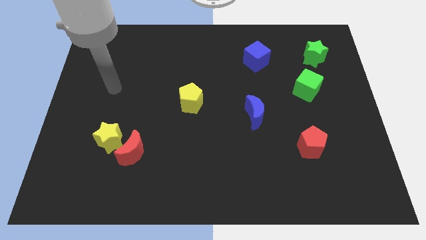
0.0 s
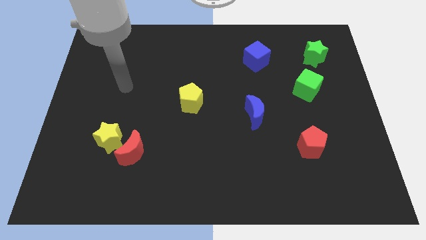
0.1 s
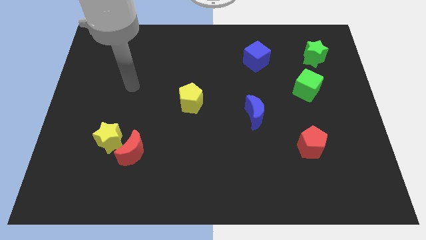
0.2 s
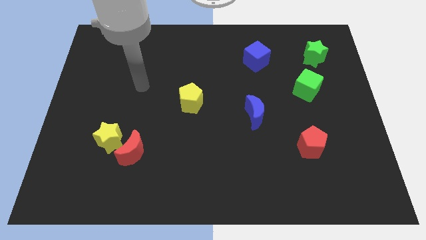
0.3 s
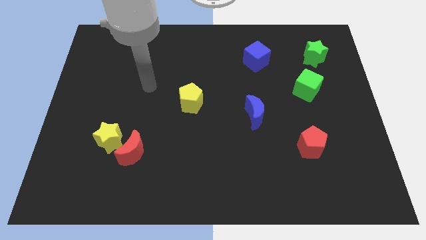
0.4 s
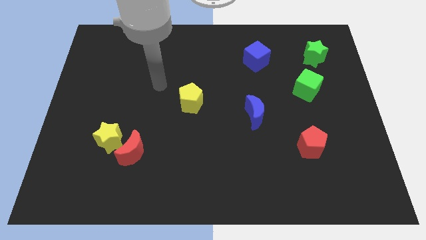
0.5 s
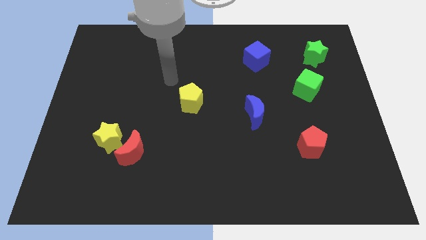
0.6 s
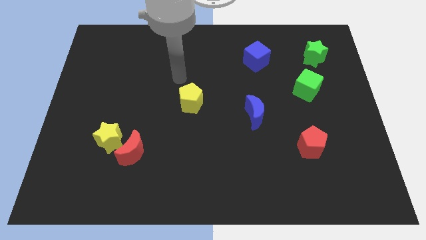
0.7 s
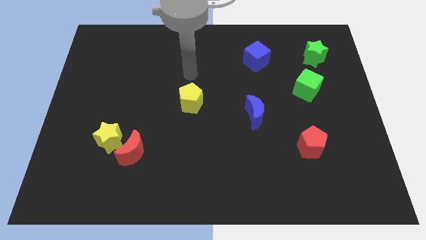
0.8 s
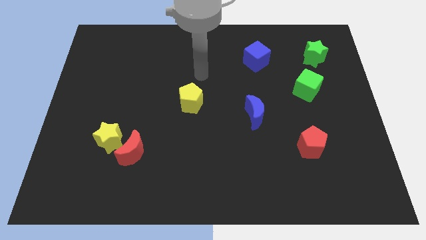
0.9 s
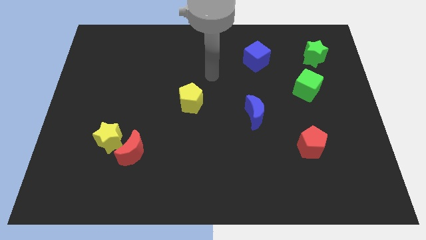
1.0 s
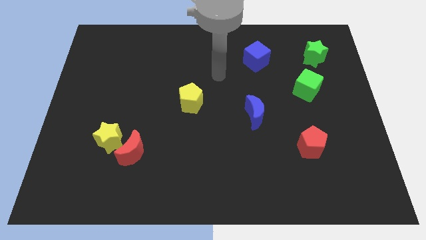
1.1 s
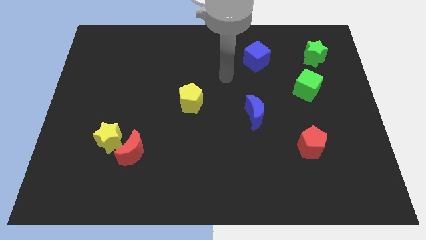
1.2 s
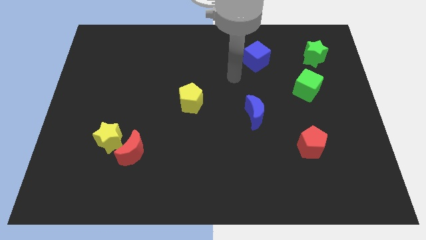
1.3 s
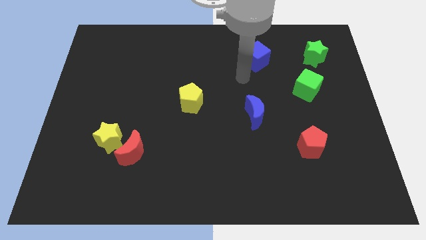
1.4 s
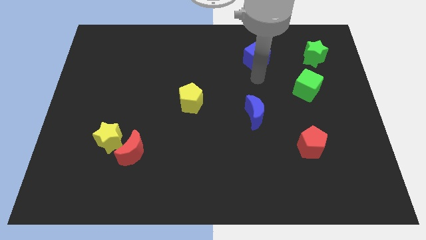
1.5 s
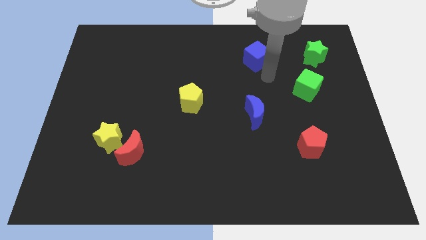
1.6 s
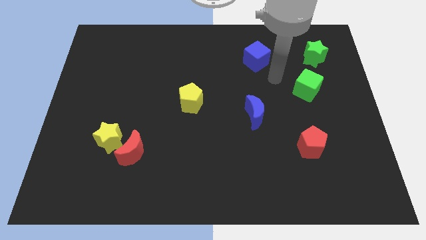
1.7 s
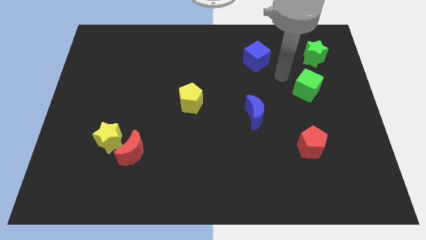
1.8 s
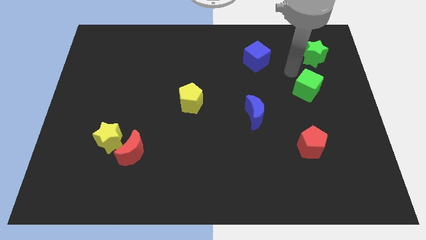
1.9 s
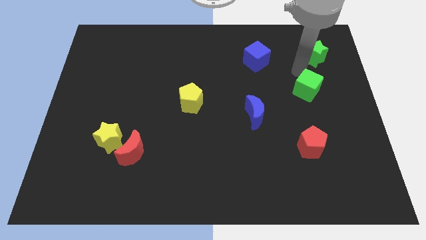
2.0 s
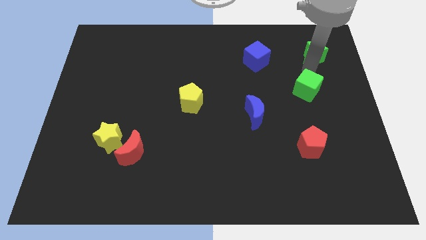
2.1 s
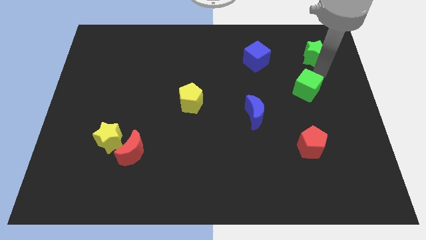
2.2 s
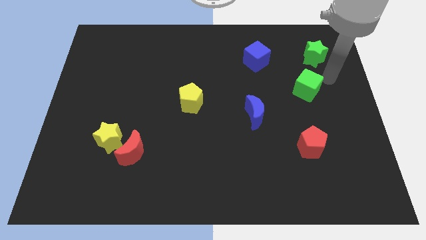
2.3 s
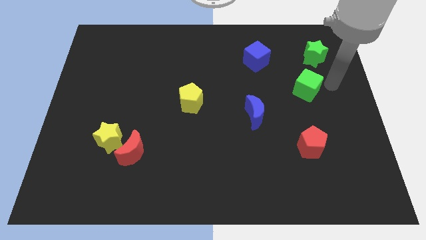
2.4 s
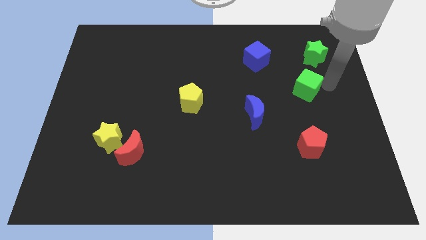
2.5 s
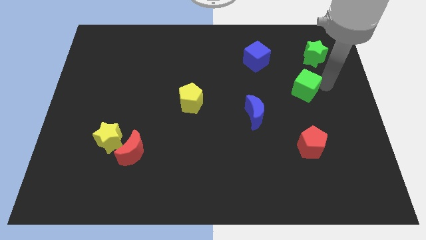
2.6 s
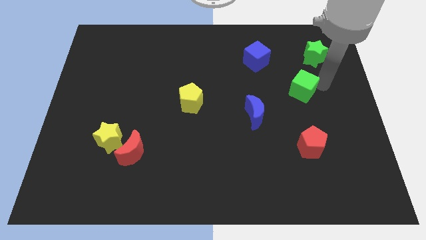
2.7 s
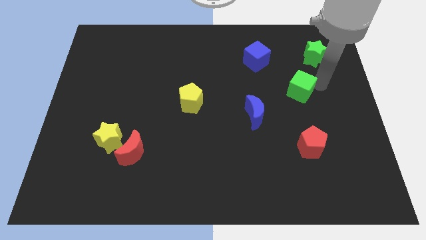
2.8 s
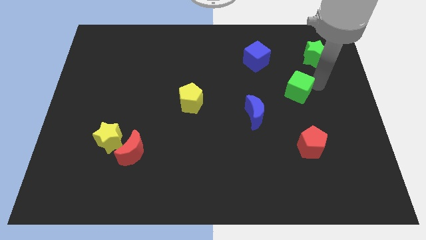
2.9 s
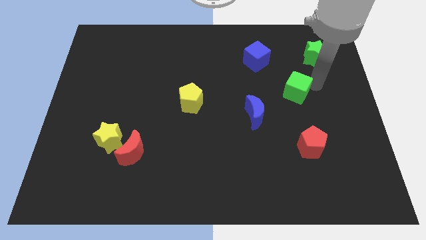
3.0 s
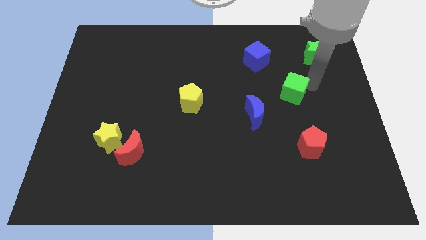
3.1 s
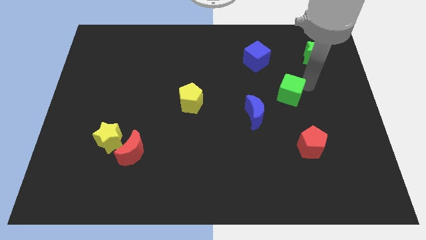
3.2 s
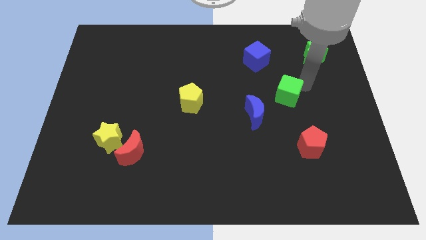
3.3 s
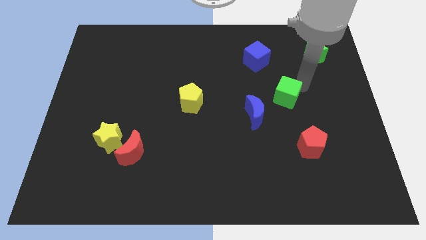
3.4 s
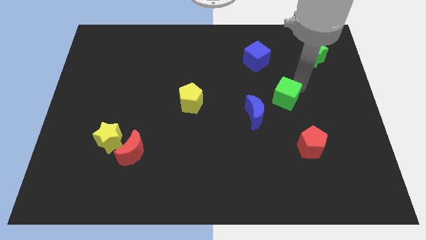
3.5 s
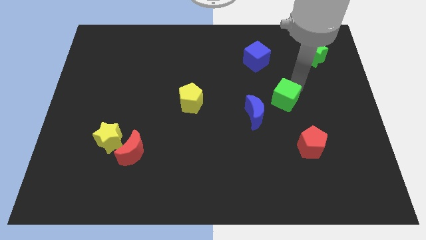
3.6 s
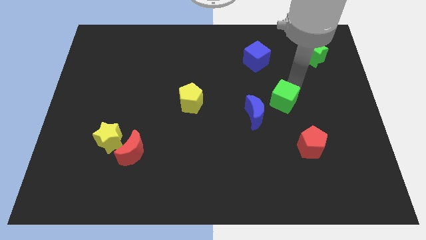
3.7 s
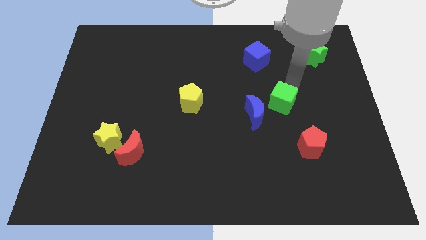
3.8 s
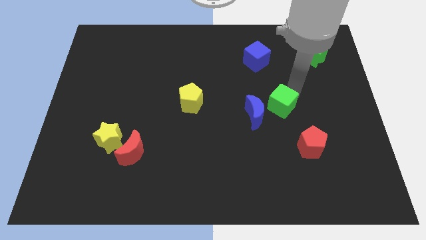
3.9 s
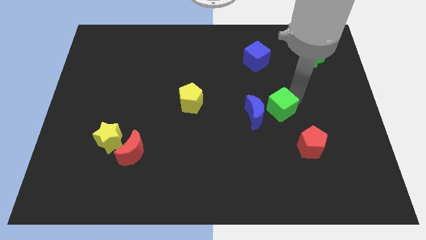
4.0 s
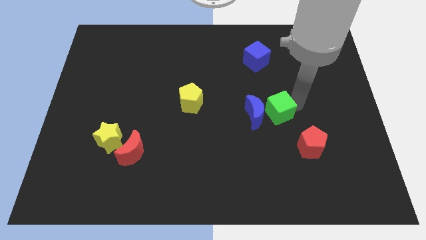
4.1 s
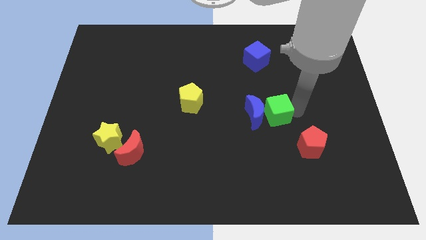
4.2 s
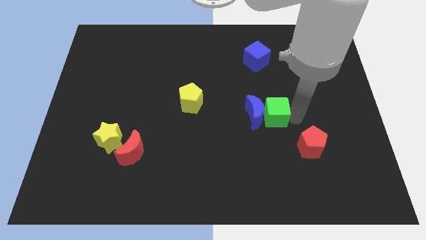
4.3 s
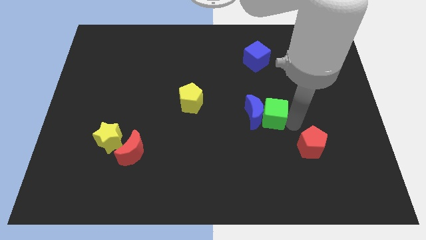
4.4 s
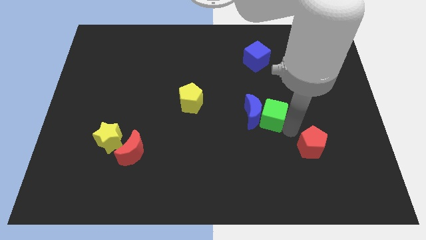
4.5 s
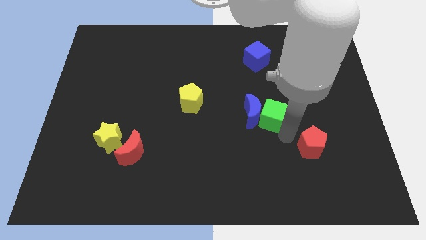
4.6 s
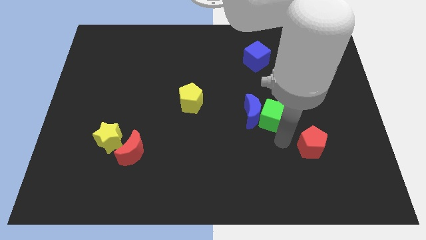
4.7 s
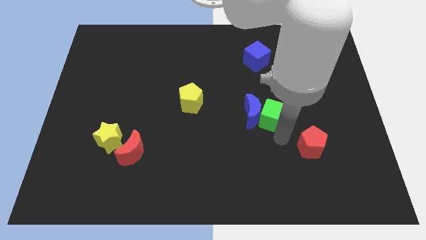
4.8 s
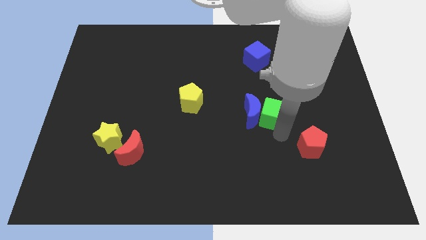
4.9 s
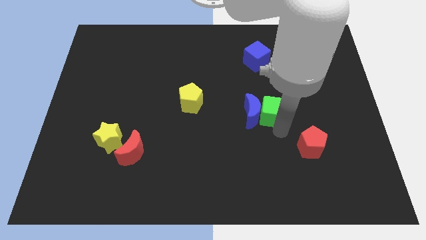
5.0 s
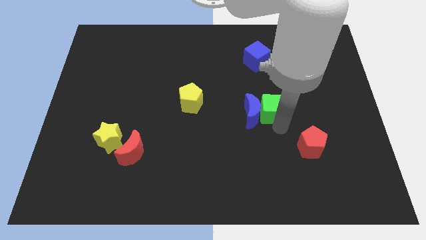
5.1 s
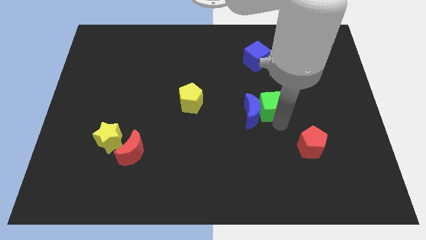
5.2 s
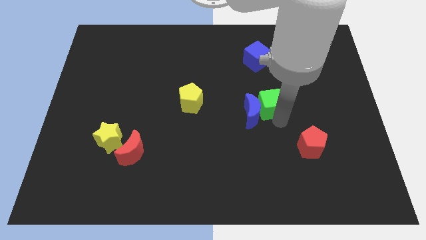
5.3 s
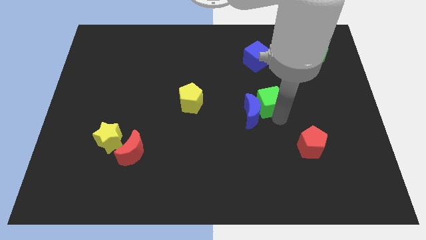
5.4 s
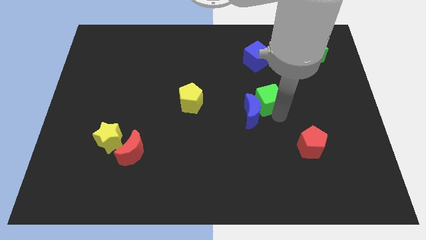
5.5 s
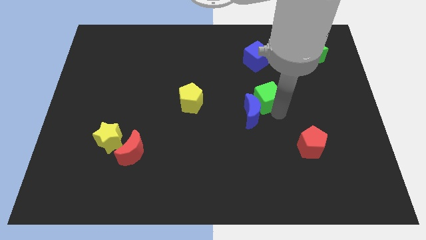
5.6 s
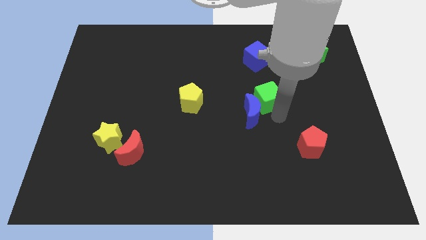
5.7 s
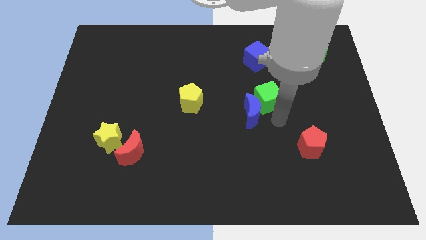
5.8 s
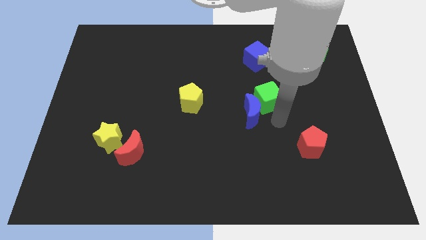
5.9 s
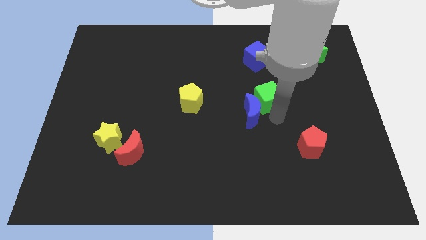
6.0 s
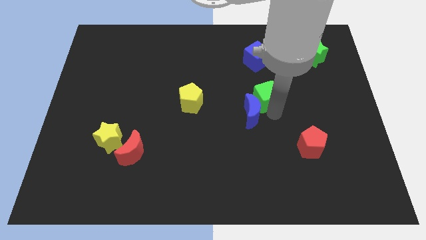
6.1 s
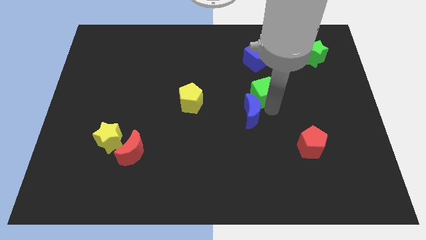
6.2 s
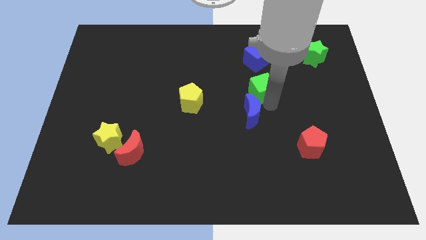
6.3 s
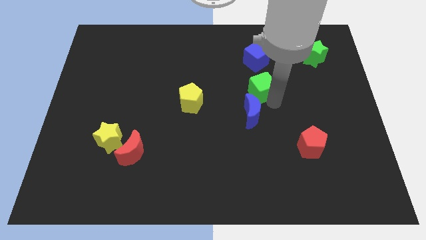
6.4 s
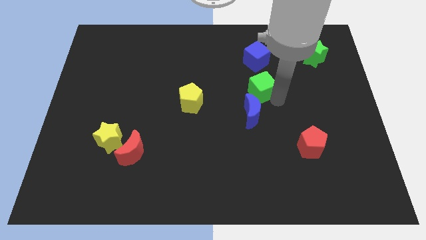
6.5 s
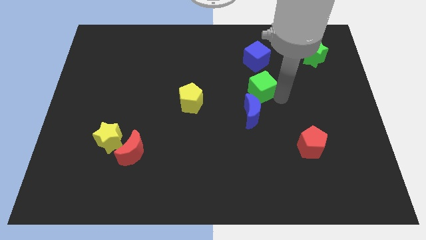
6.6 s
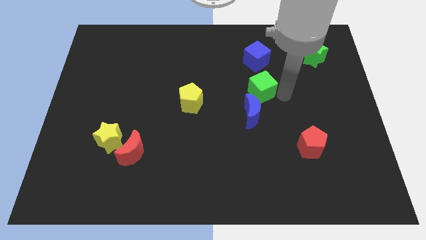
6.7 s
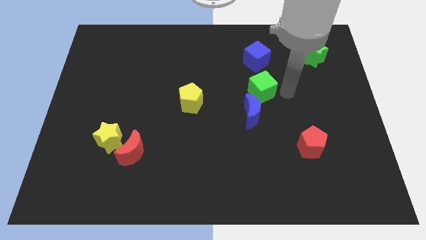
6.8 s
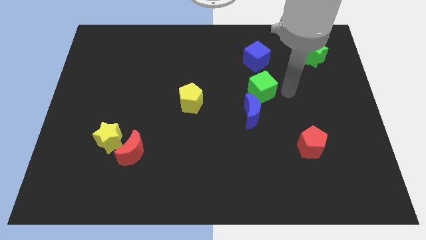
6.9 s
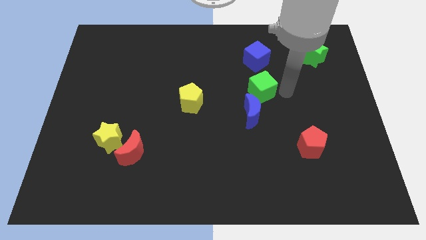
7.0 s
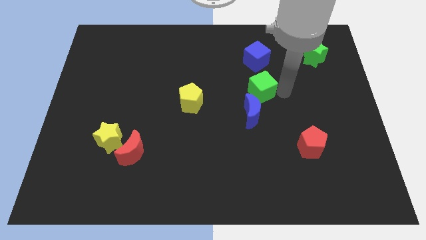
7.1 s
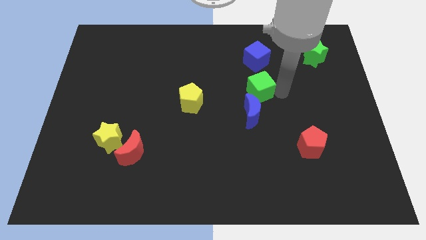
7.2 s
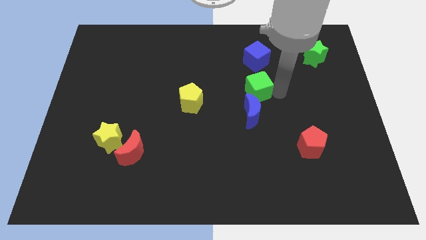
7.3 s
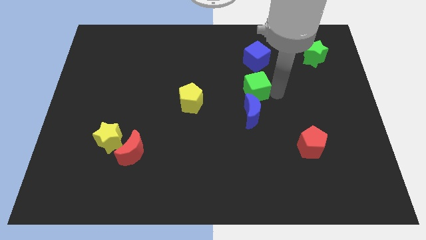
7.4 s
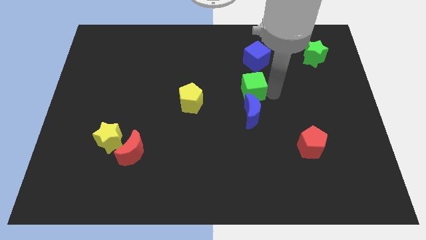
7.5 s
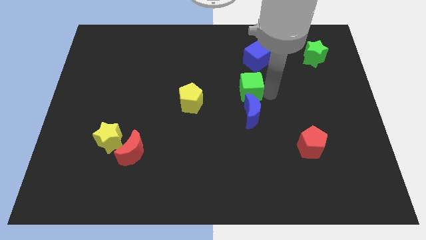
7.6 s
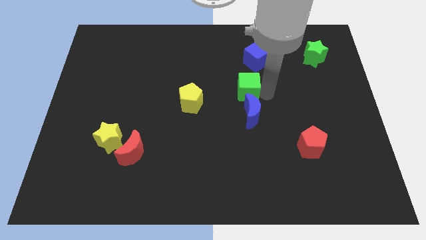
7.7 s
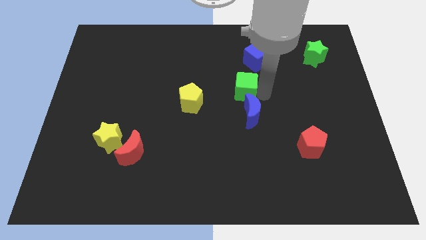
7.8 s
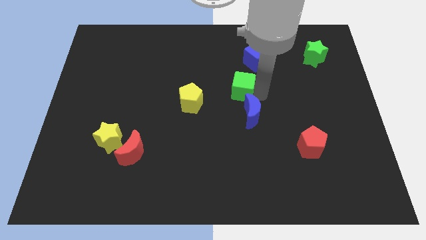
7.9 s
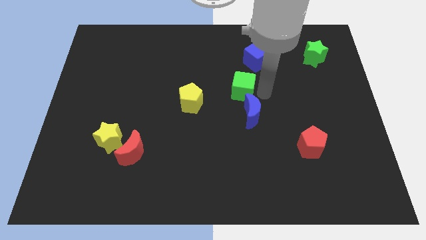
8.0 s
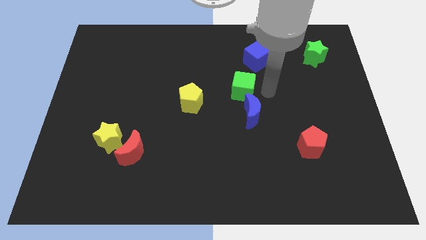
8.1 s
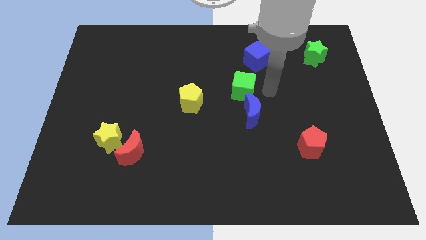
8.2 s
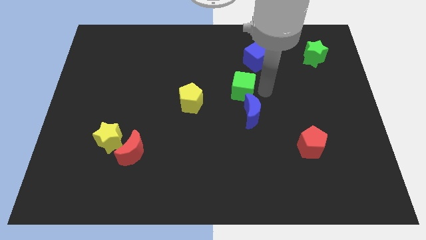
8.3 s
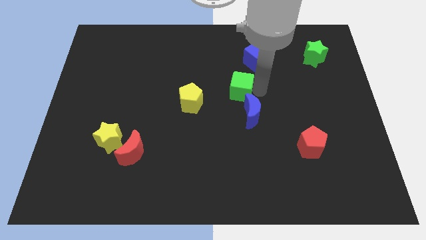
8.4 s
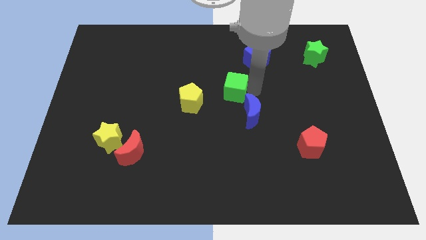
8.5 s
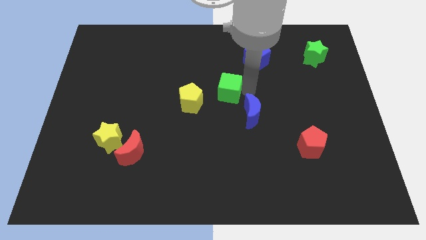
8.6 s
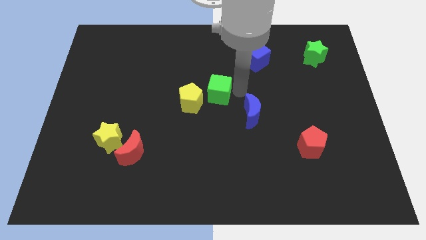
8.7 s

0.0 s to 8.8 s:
push the green cube left
